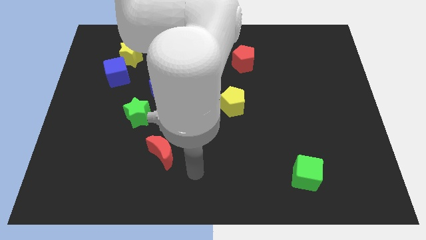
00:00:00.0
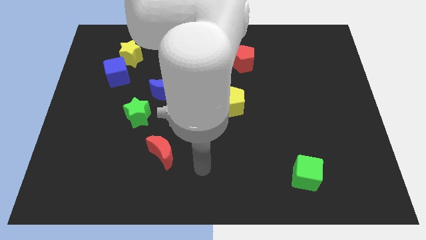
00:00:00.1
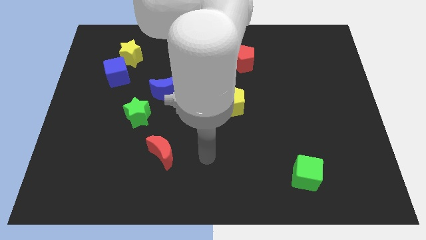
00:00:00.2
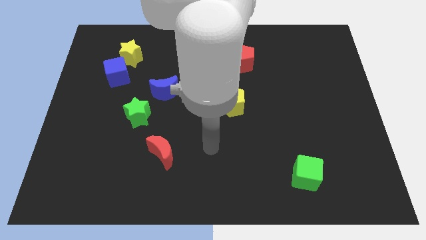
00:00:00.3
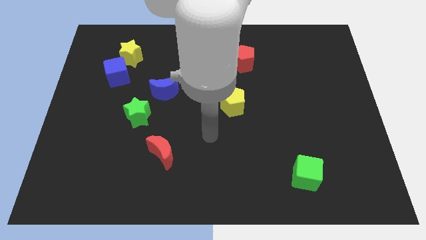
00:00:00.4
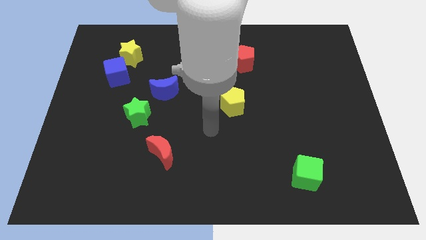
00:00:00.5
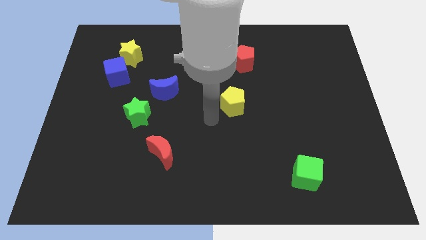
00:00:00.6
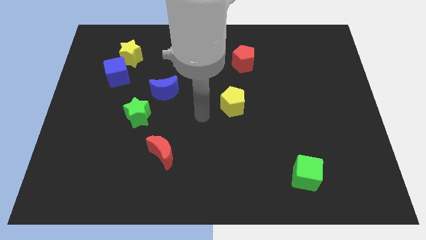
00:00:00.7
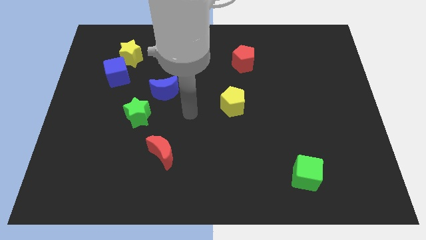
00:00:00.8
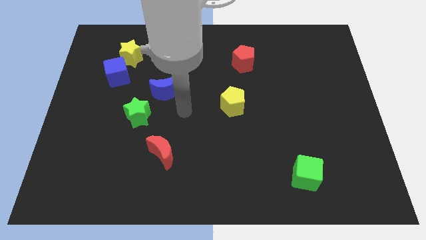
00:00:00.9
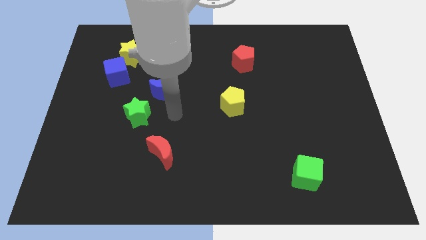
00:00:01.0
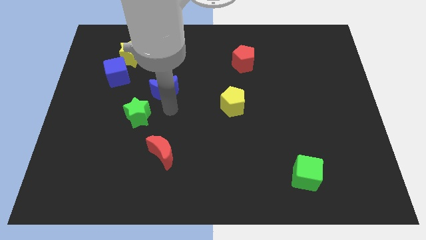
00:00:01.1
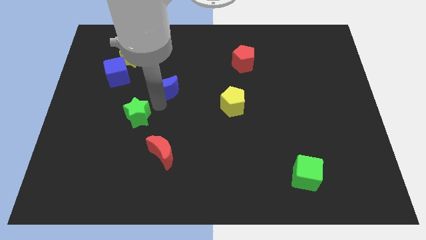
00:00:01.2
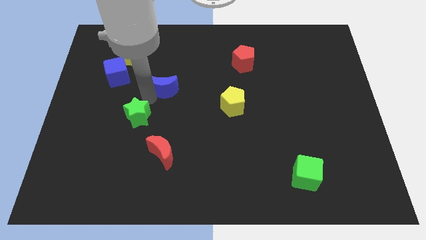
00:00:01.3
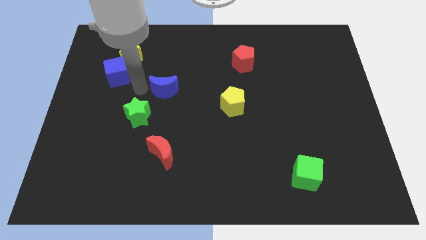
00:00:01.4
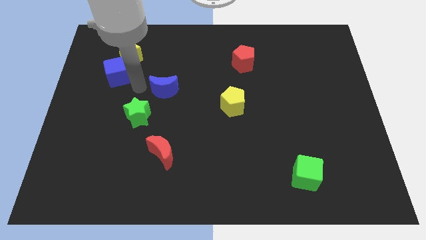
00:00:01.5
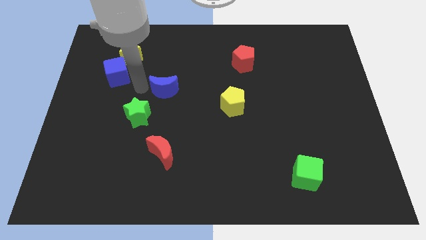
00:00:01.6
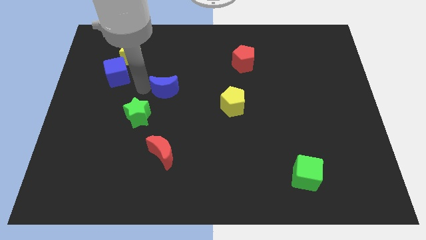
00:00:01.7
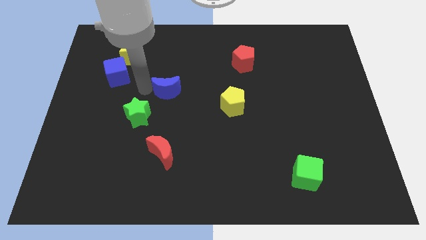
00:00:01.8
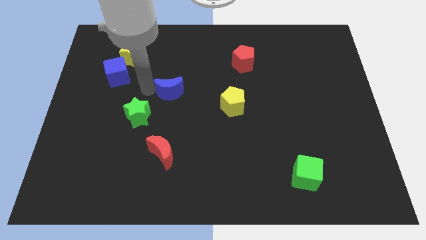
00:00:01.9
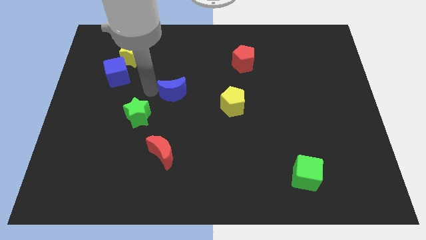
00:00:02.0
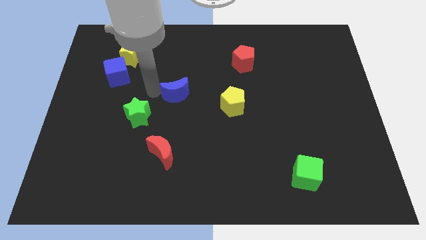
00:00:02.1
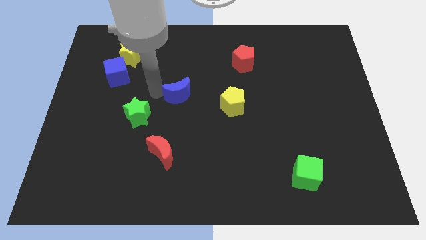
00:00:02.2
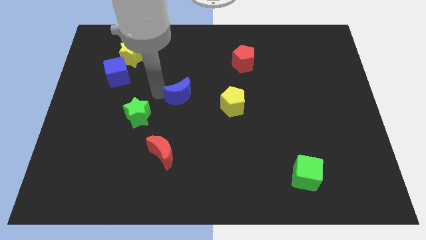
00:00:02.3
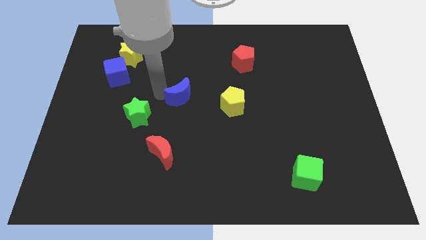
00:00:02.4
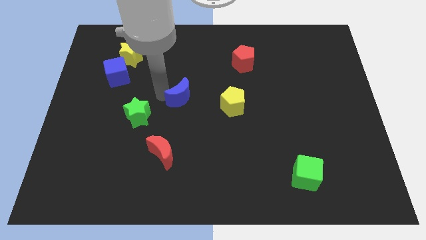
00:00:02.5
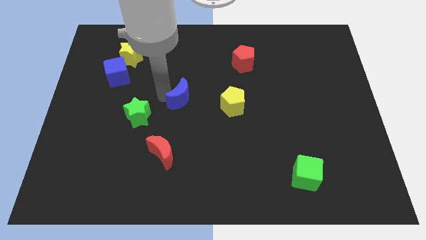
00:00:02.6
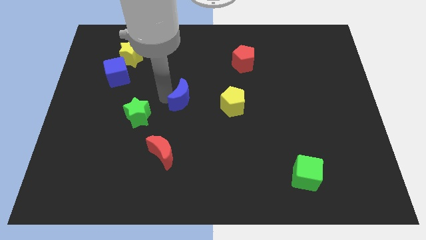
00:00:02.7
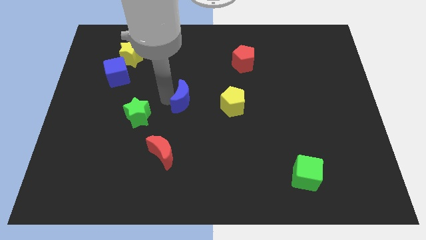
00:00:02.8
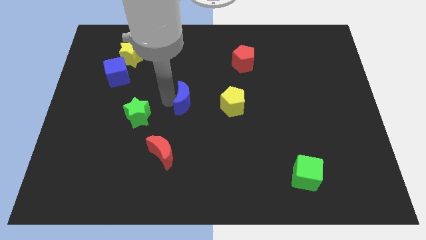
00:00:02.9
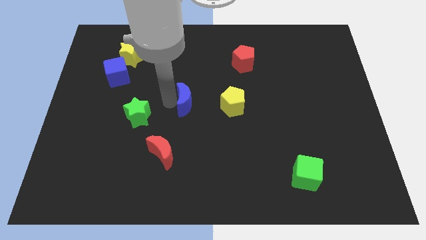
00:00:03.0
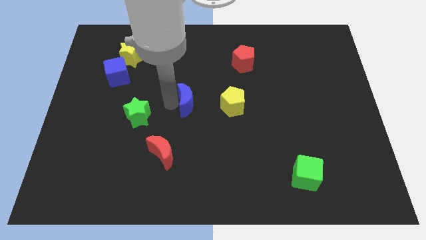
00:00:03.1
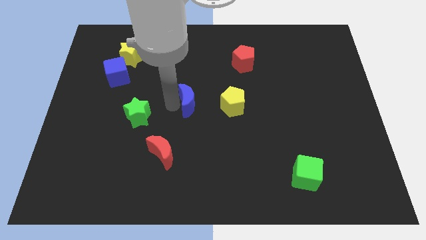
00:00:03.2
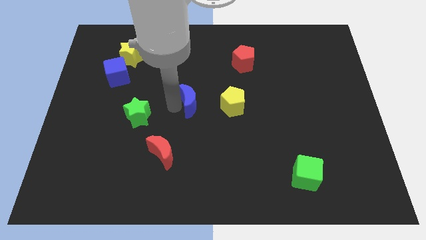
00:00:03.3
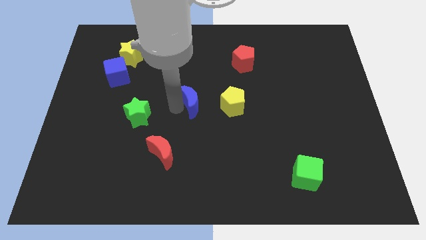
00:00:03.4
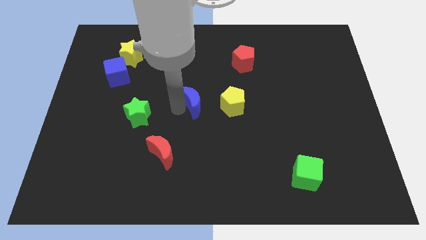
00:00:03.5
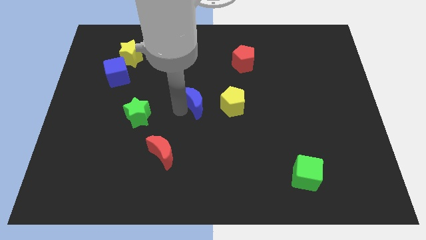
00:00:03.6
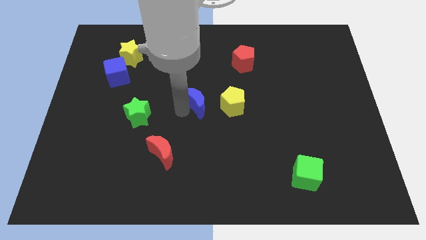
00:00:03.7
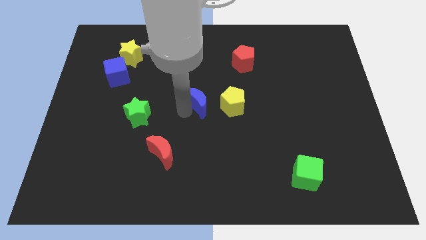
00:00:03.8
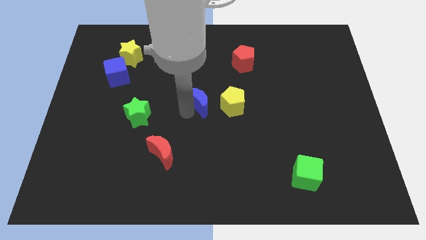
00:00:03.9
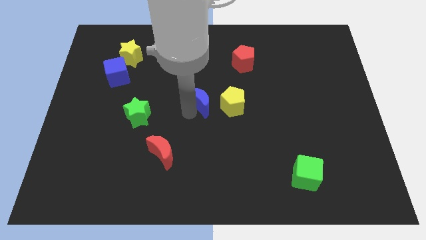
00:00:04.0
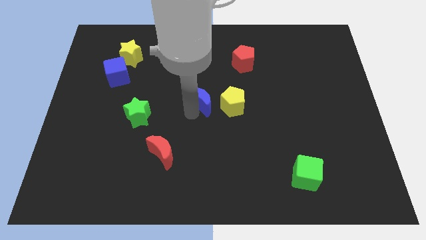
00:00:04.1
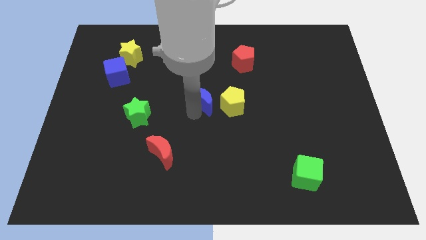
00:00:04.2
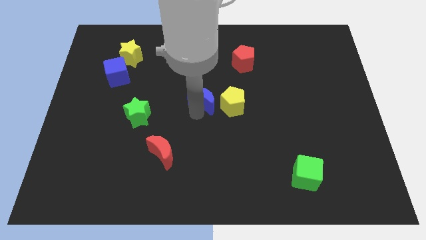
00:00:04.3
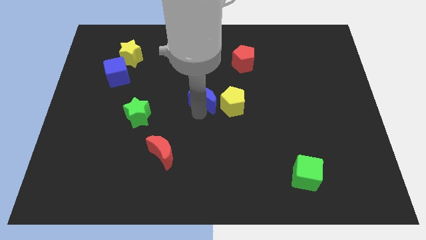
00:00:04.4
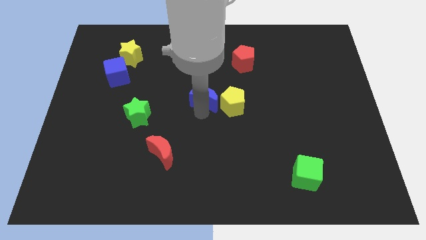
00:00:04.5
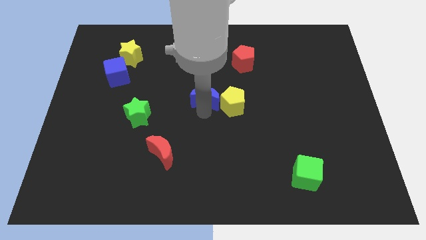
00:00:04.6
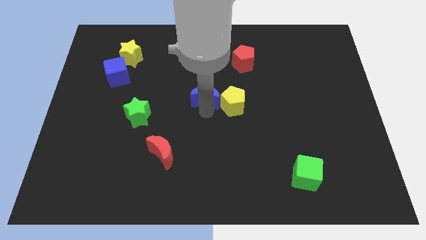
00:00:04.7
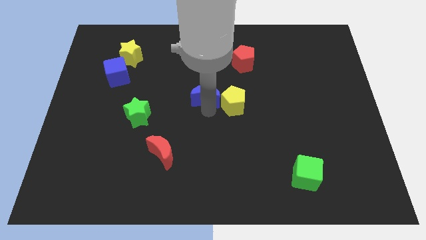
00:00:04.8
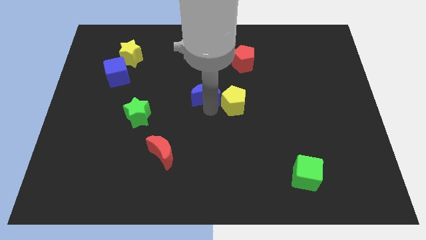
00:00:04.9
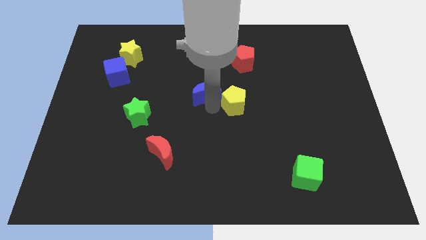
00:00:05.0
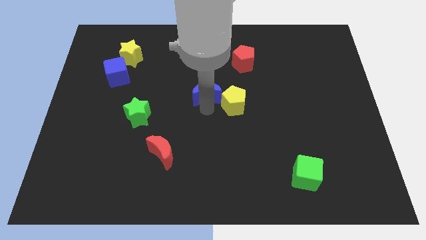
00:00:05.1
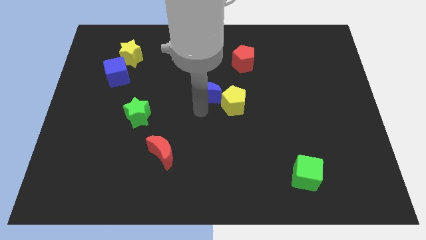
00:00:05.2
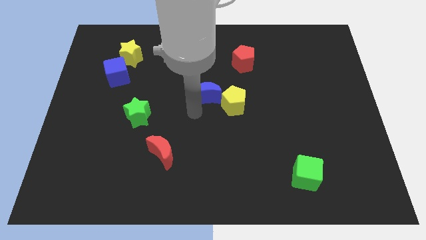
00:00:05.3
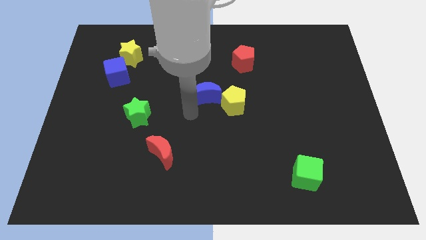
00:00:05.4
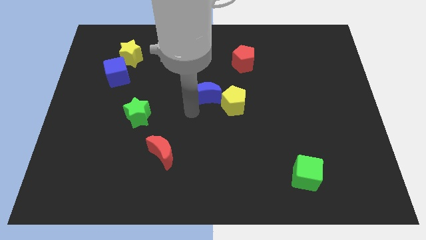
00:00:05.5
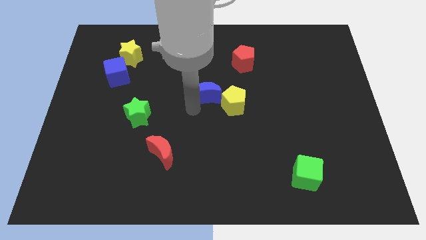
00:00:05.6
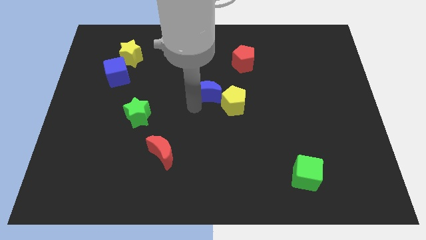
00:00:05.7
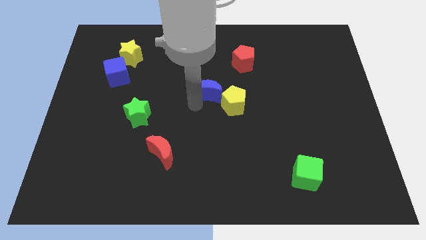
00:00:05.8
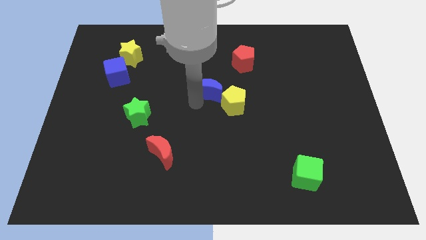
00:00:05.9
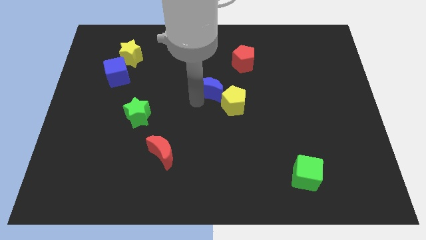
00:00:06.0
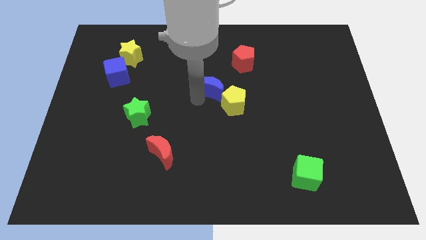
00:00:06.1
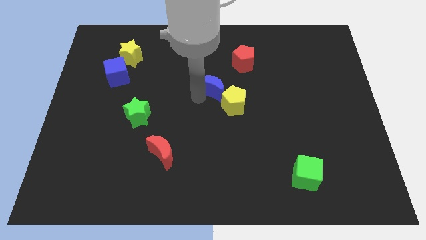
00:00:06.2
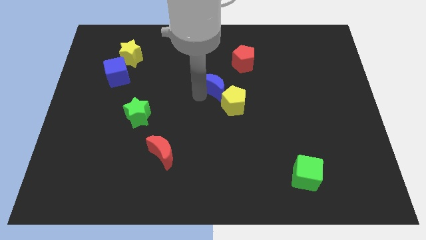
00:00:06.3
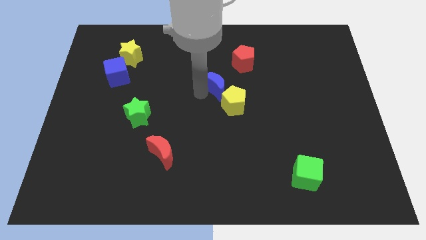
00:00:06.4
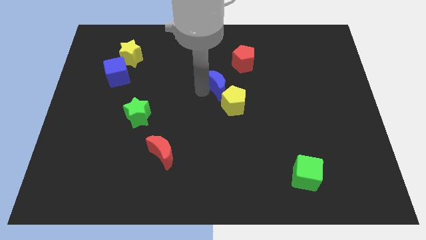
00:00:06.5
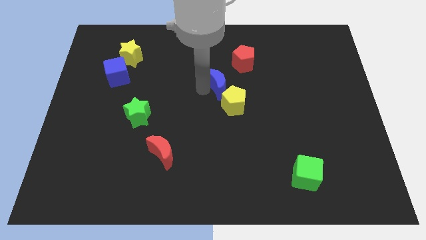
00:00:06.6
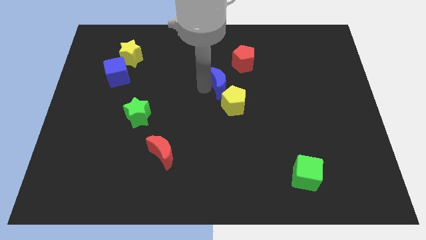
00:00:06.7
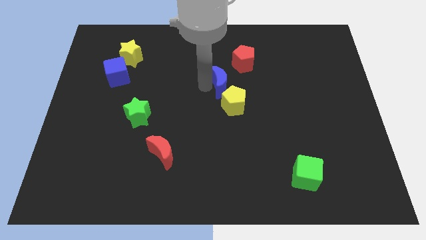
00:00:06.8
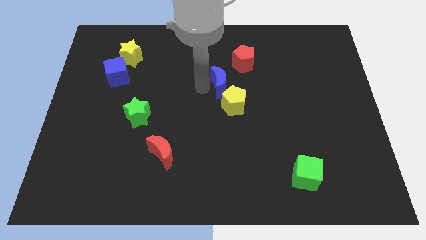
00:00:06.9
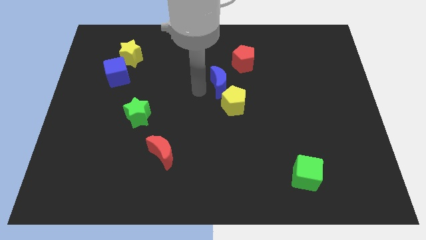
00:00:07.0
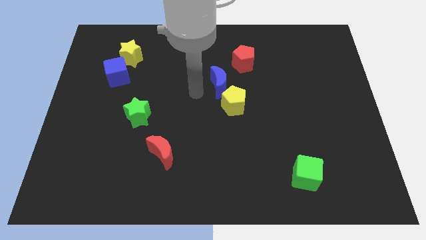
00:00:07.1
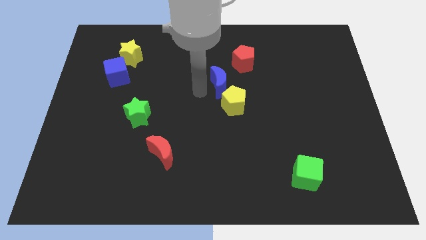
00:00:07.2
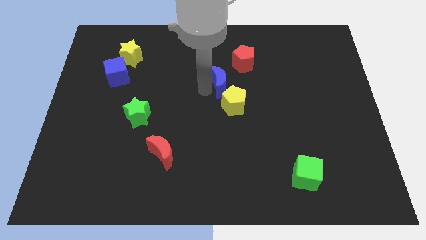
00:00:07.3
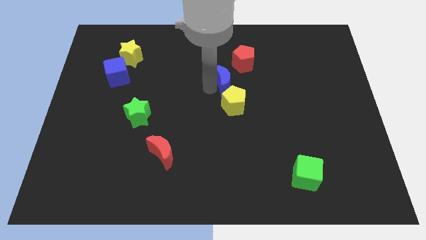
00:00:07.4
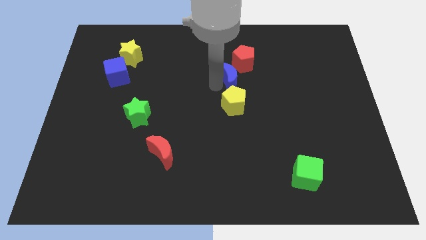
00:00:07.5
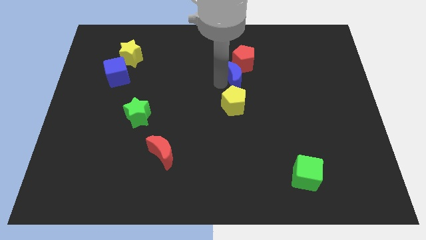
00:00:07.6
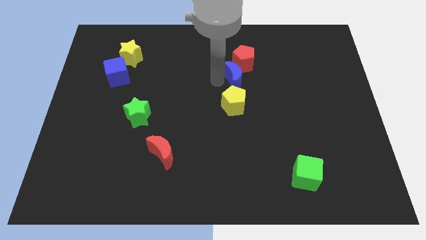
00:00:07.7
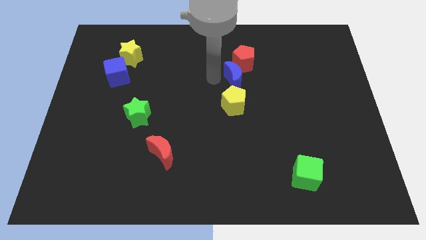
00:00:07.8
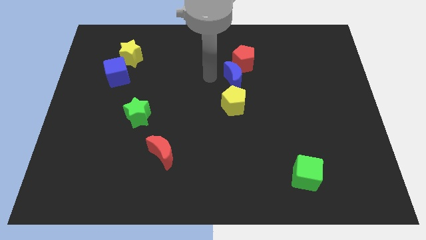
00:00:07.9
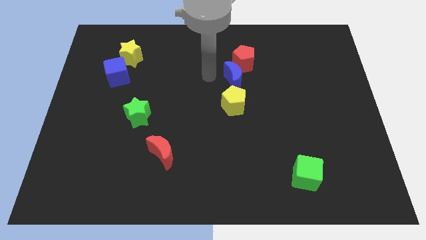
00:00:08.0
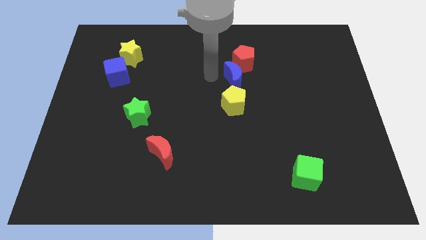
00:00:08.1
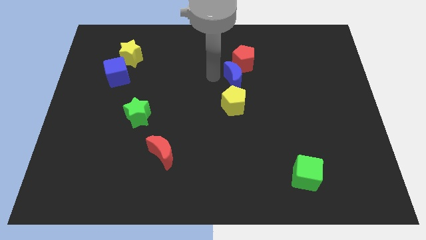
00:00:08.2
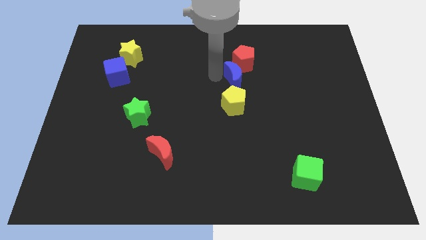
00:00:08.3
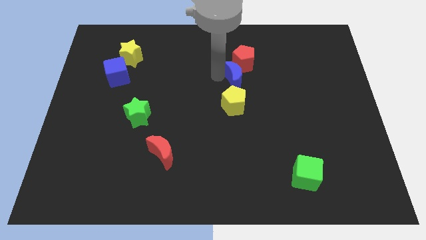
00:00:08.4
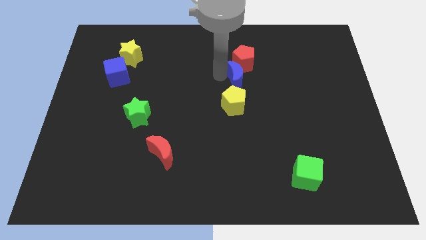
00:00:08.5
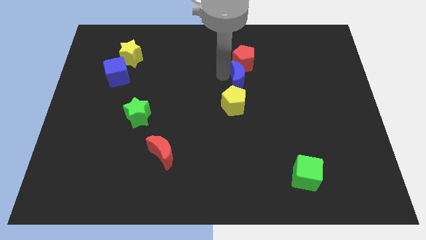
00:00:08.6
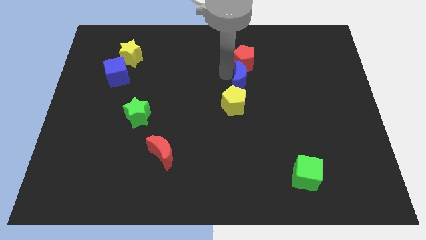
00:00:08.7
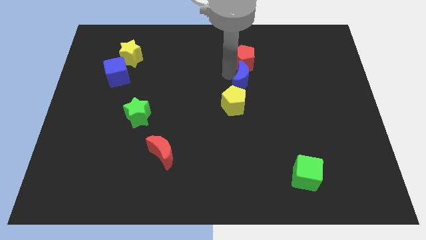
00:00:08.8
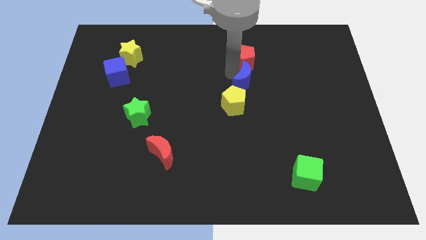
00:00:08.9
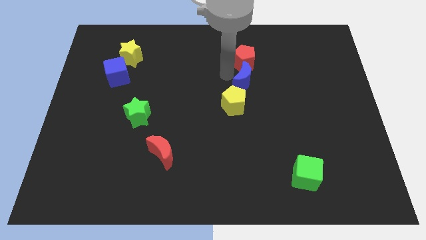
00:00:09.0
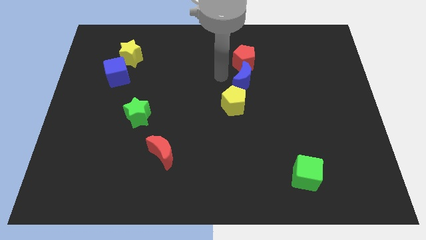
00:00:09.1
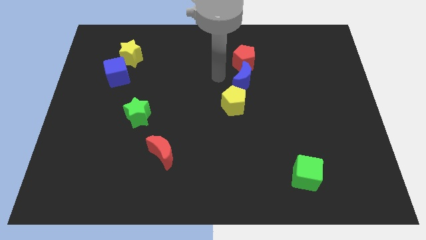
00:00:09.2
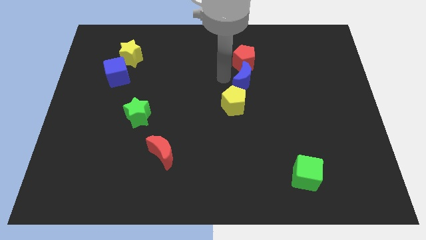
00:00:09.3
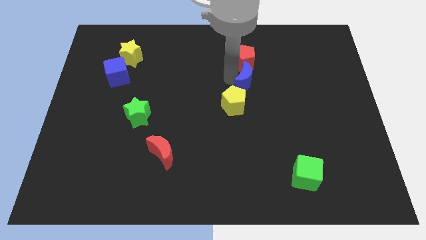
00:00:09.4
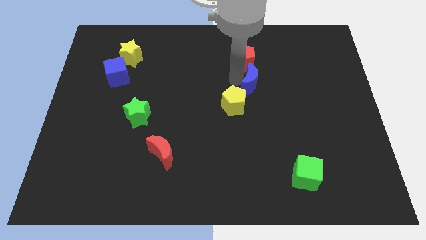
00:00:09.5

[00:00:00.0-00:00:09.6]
move the blue moon to the right
